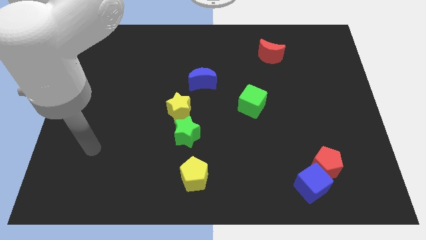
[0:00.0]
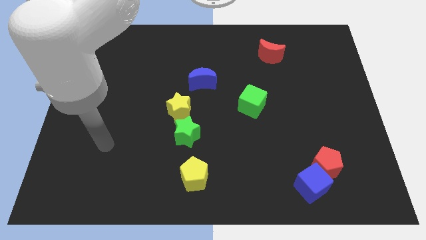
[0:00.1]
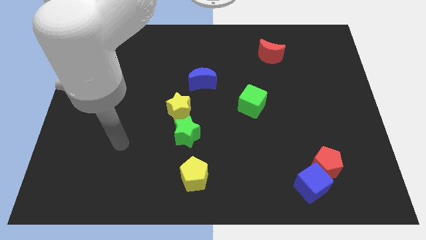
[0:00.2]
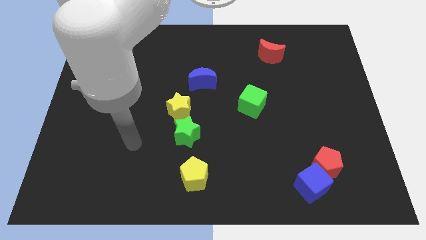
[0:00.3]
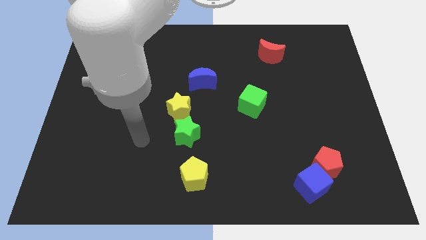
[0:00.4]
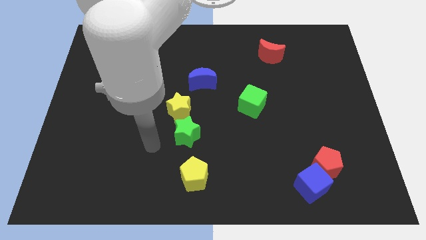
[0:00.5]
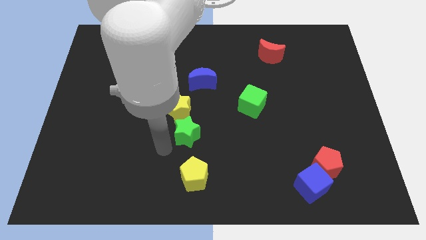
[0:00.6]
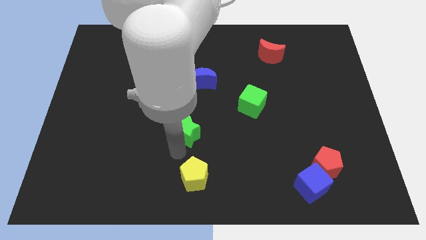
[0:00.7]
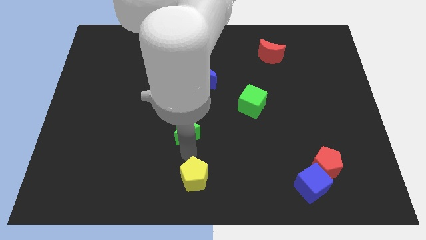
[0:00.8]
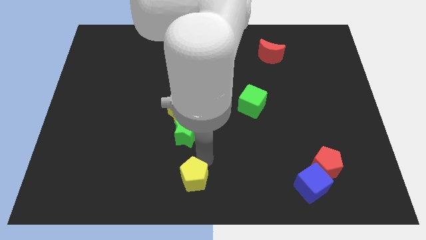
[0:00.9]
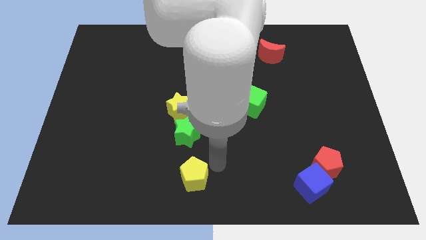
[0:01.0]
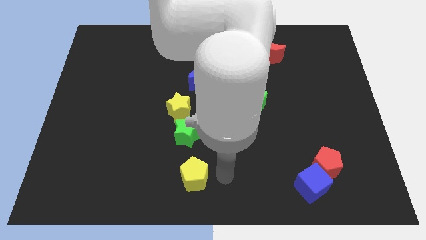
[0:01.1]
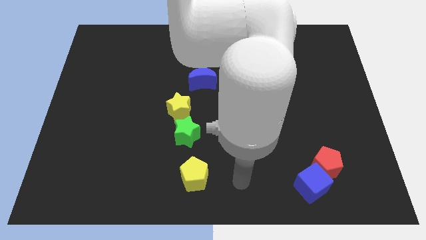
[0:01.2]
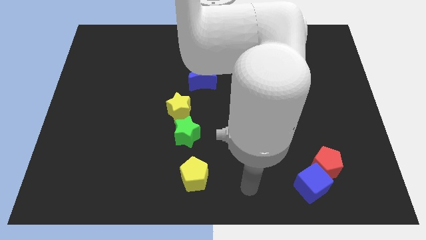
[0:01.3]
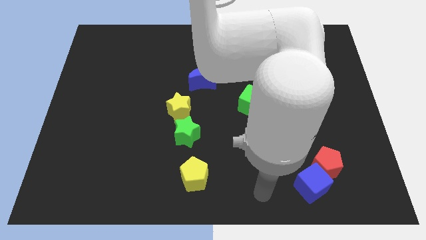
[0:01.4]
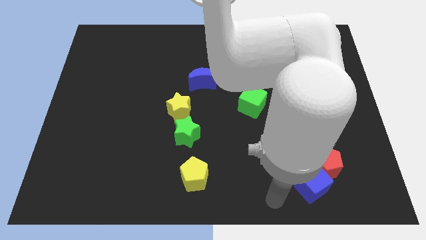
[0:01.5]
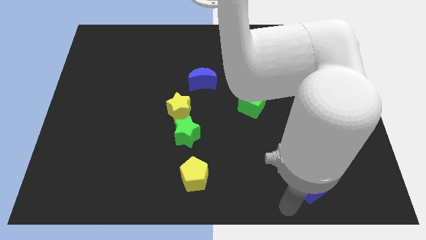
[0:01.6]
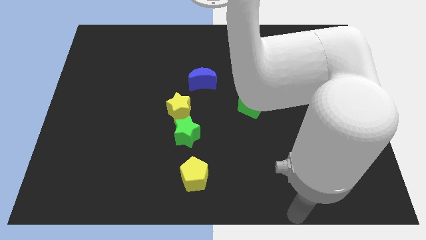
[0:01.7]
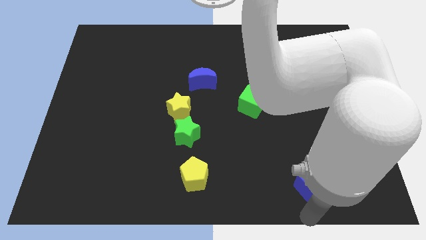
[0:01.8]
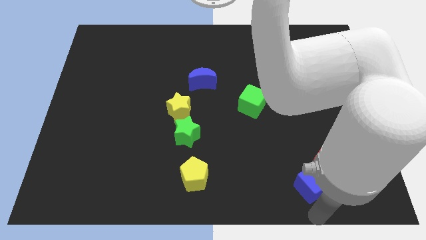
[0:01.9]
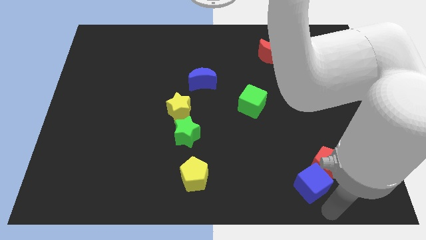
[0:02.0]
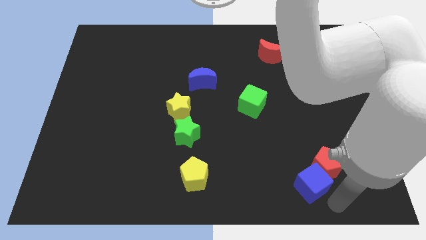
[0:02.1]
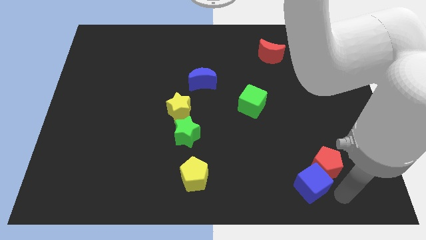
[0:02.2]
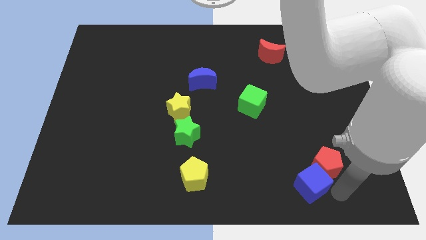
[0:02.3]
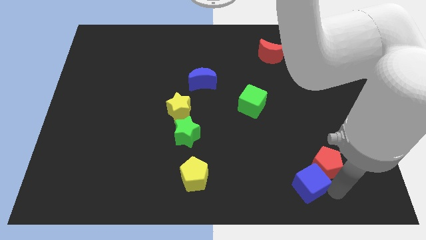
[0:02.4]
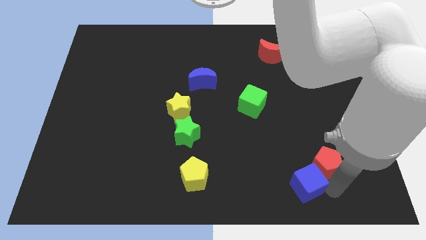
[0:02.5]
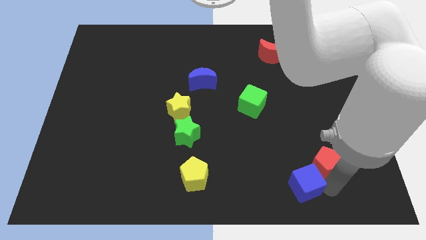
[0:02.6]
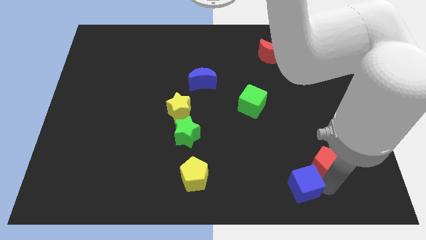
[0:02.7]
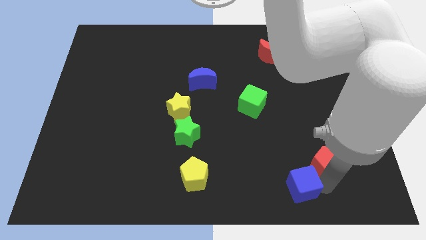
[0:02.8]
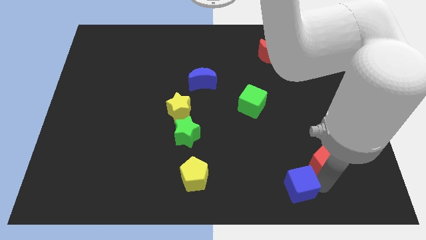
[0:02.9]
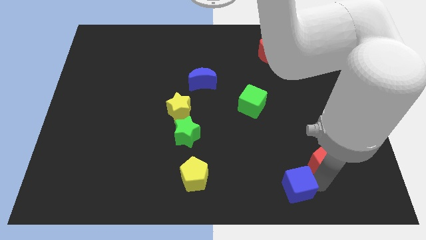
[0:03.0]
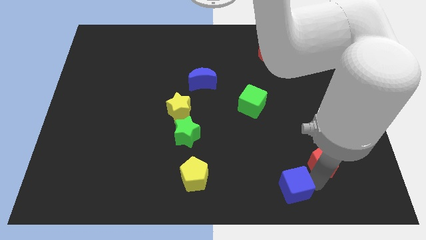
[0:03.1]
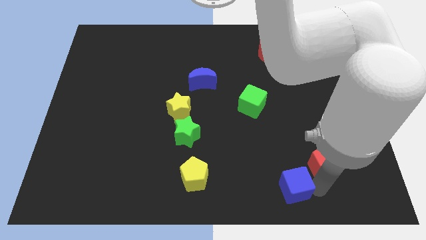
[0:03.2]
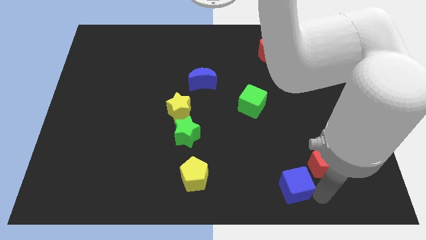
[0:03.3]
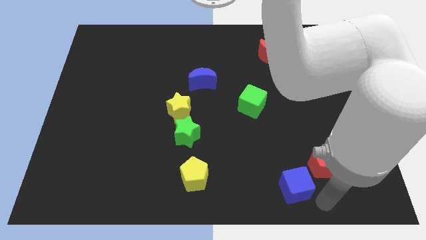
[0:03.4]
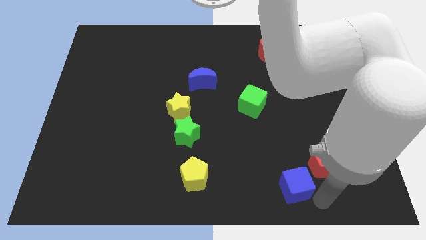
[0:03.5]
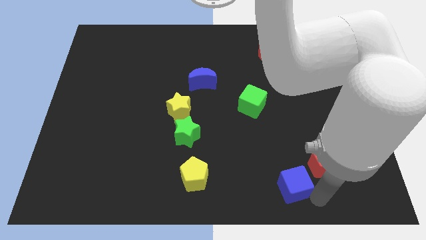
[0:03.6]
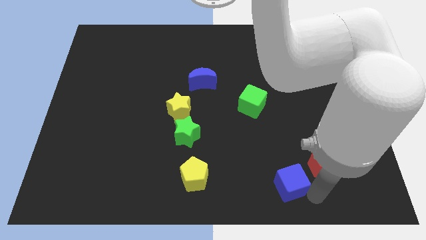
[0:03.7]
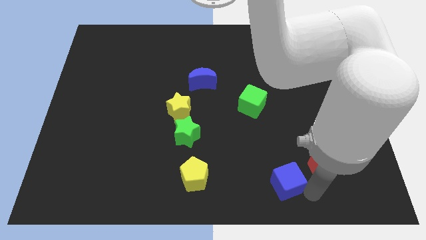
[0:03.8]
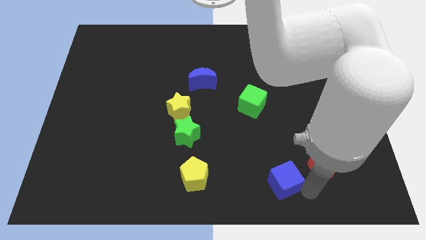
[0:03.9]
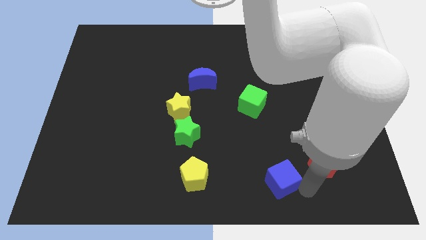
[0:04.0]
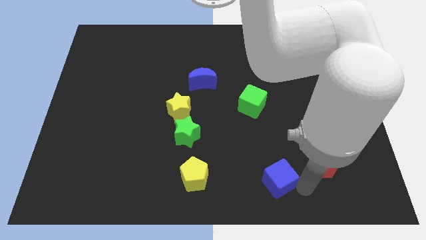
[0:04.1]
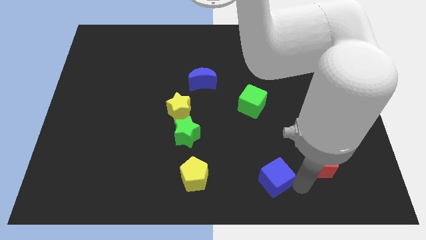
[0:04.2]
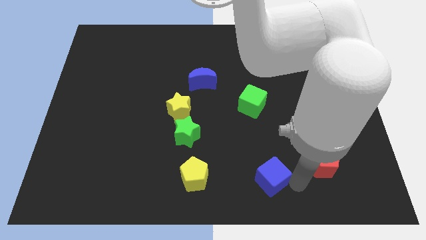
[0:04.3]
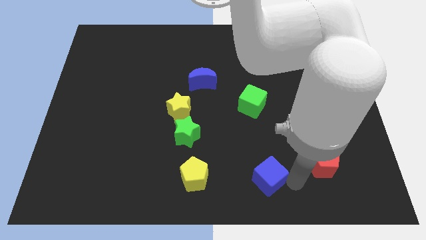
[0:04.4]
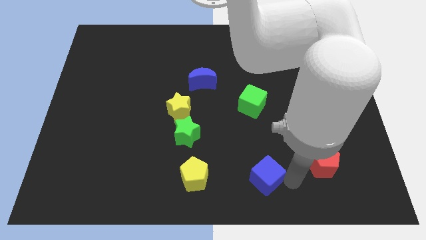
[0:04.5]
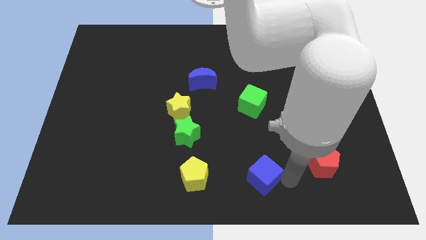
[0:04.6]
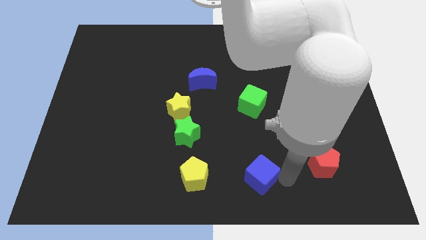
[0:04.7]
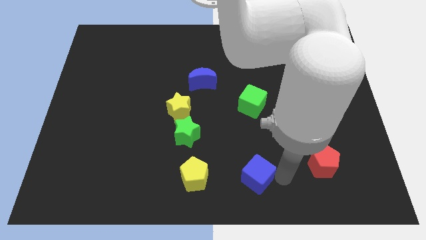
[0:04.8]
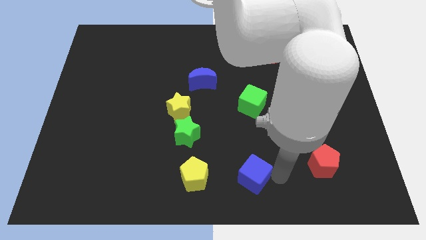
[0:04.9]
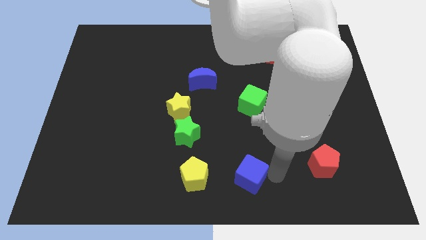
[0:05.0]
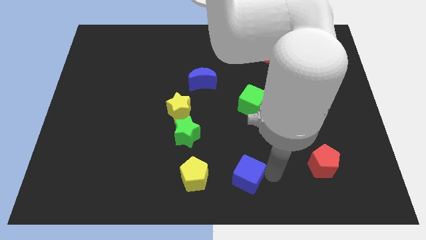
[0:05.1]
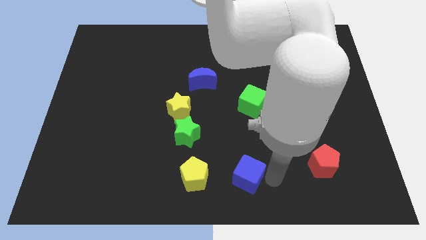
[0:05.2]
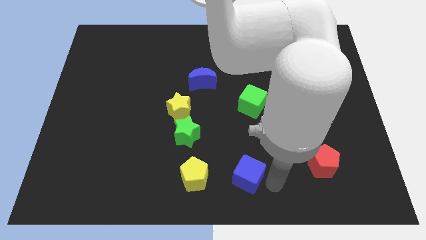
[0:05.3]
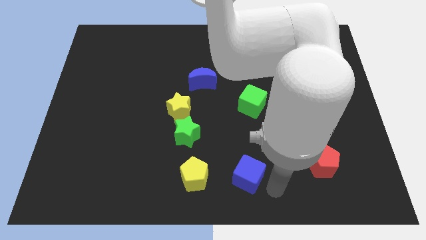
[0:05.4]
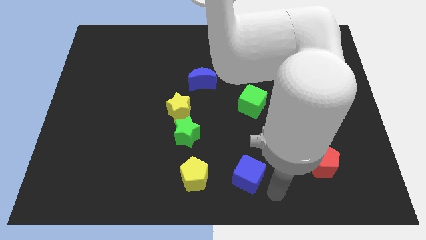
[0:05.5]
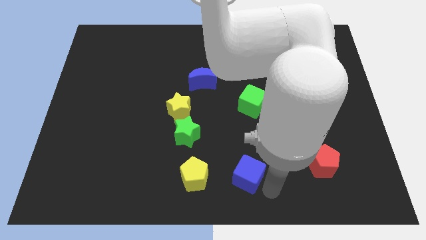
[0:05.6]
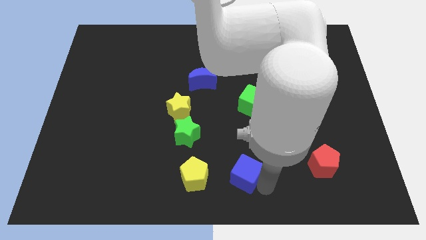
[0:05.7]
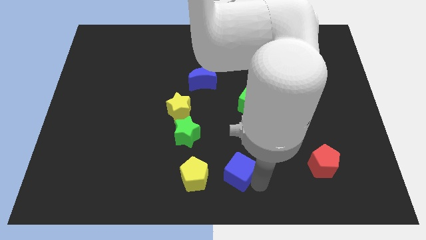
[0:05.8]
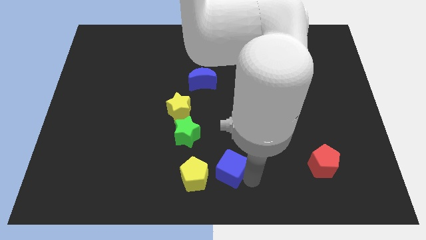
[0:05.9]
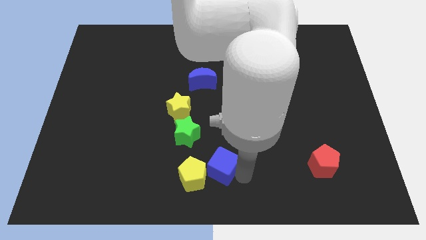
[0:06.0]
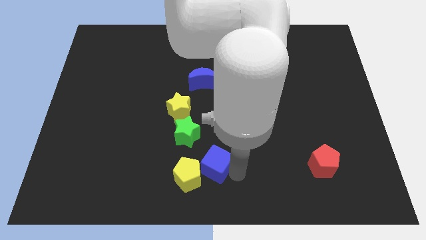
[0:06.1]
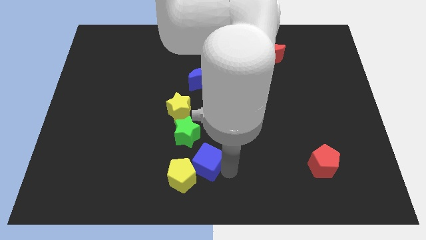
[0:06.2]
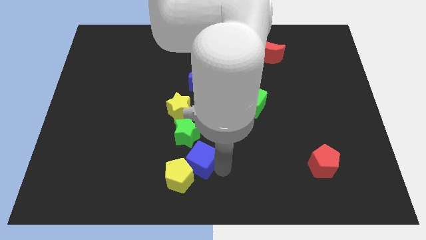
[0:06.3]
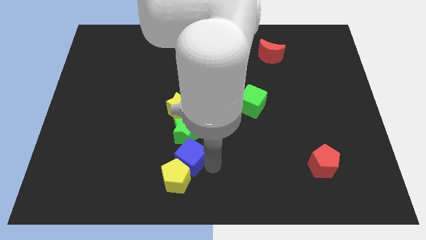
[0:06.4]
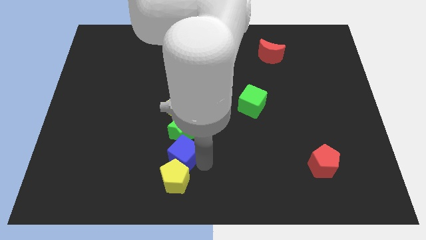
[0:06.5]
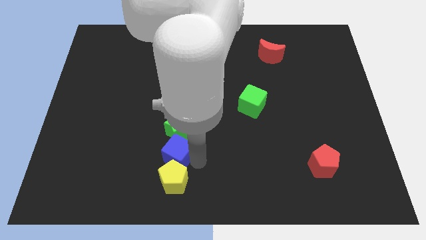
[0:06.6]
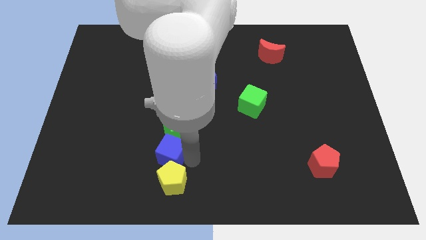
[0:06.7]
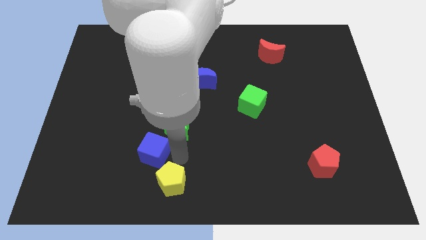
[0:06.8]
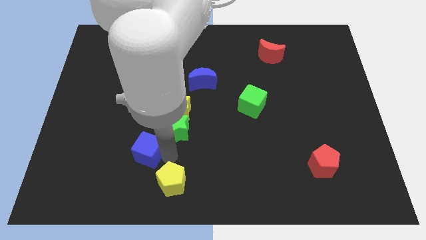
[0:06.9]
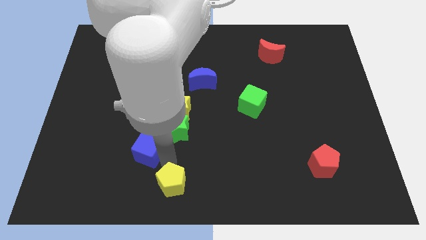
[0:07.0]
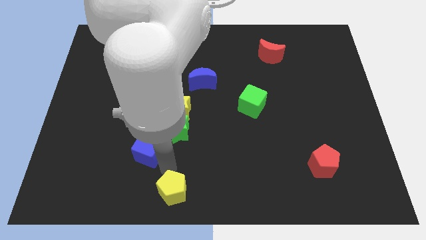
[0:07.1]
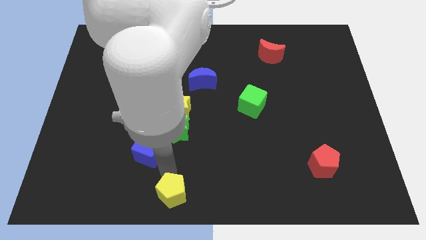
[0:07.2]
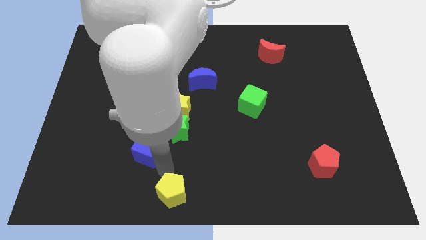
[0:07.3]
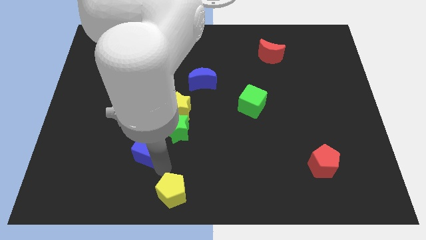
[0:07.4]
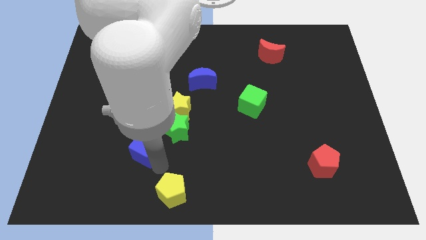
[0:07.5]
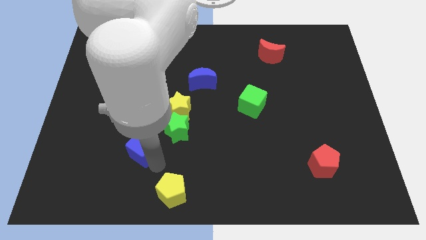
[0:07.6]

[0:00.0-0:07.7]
push the blue cube to the left of the green star
